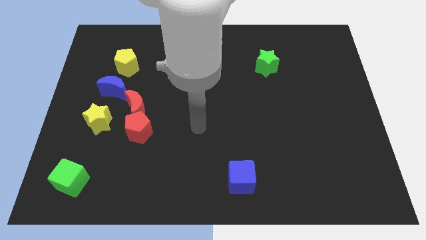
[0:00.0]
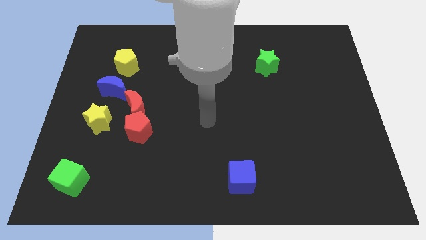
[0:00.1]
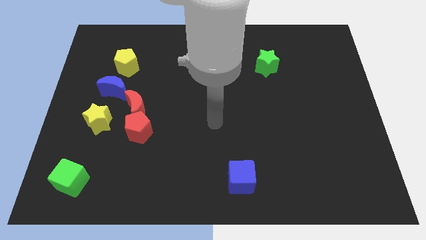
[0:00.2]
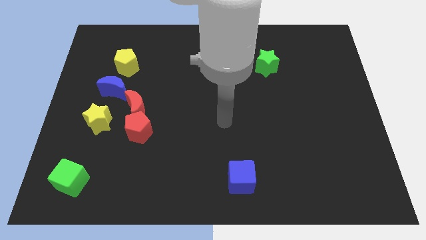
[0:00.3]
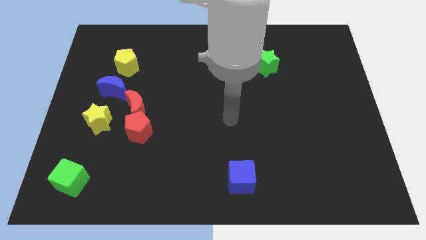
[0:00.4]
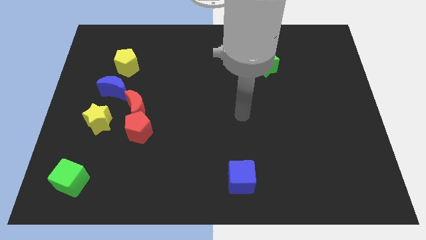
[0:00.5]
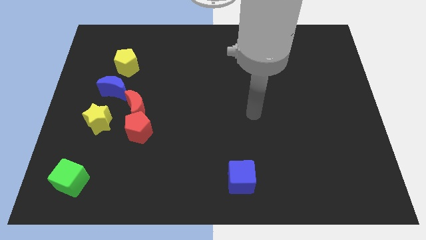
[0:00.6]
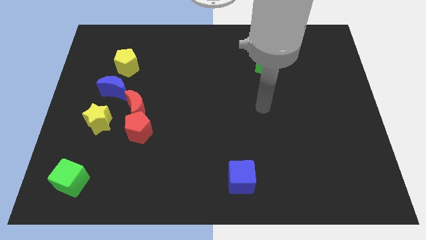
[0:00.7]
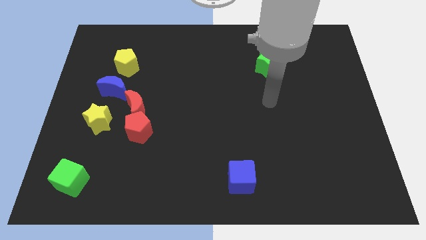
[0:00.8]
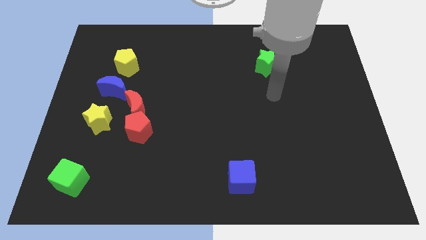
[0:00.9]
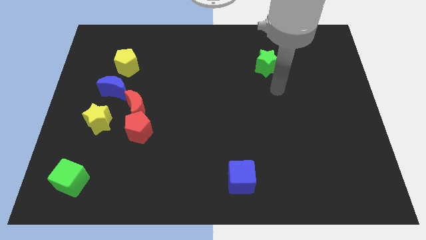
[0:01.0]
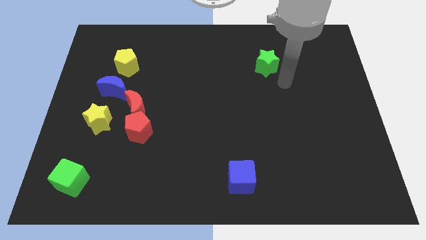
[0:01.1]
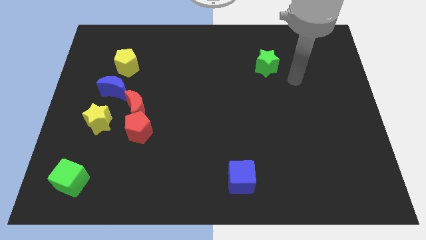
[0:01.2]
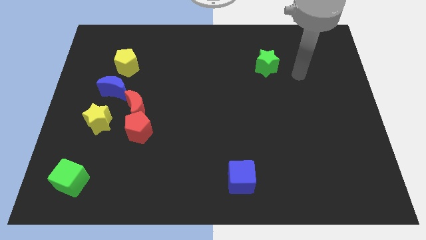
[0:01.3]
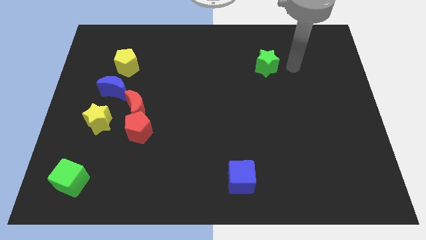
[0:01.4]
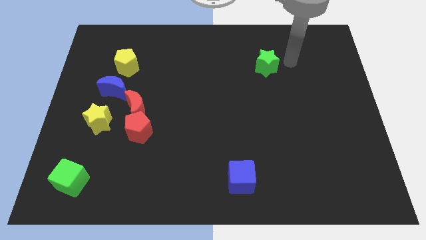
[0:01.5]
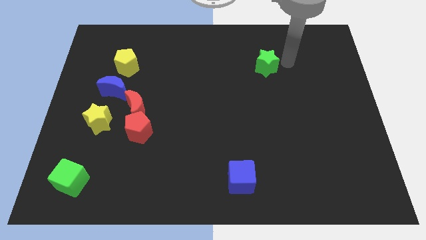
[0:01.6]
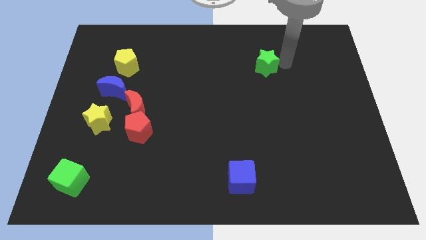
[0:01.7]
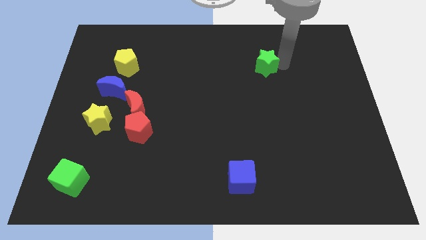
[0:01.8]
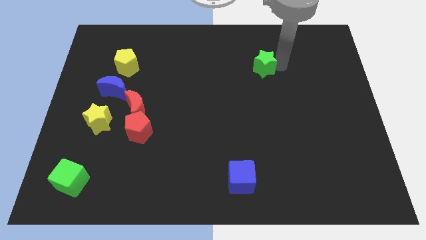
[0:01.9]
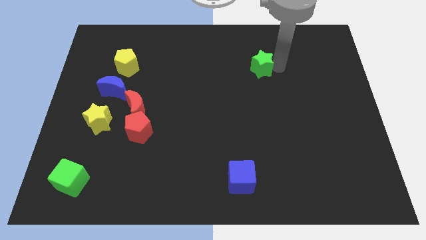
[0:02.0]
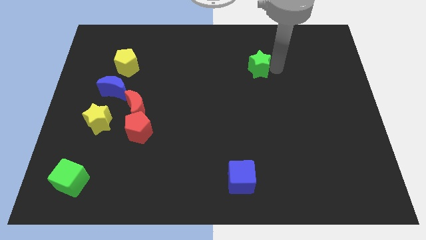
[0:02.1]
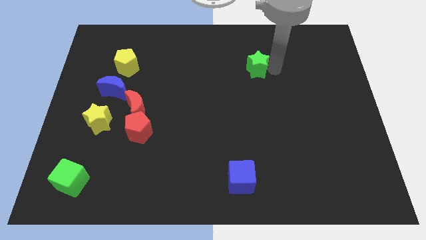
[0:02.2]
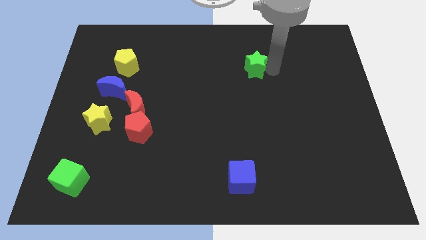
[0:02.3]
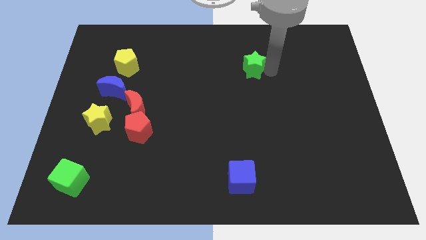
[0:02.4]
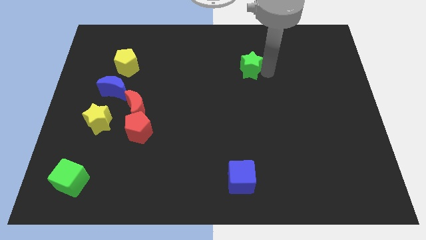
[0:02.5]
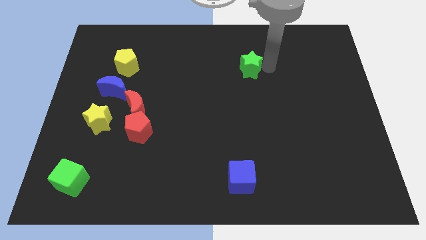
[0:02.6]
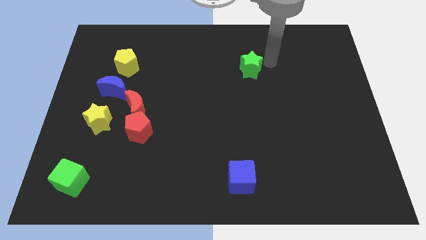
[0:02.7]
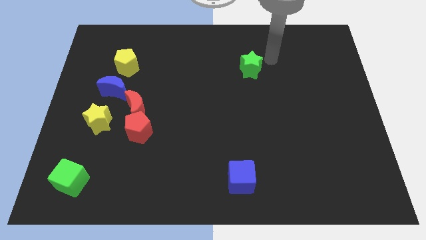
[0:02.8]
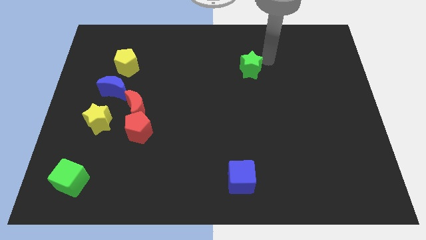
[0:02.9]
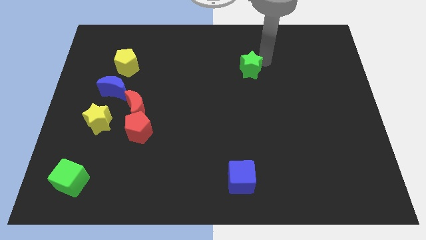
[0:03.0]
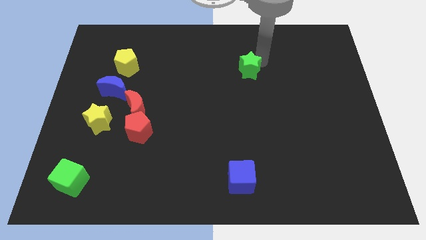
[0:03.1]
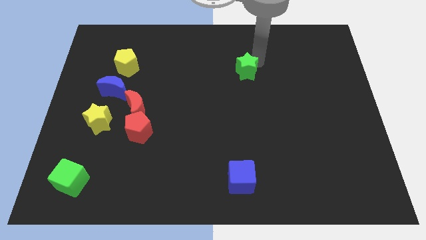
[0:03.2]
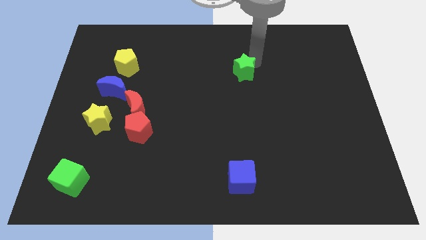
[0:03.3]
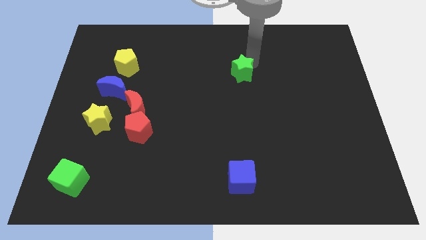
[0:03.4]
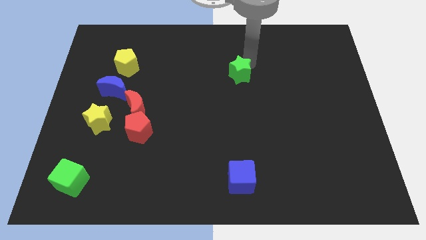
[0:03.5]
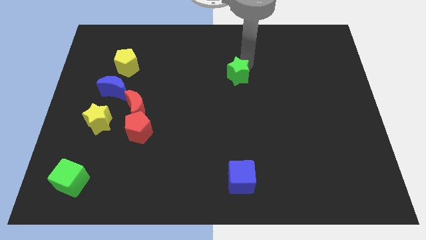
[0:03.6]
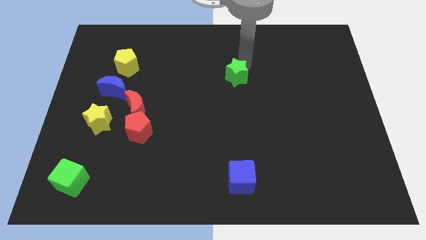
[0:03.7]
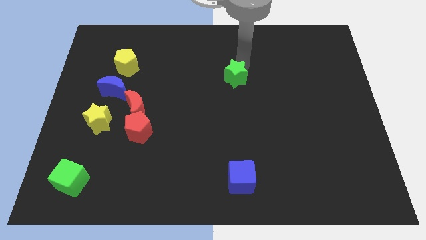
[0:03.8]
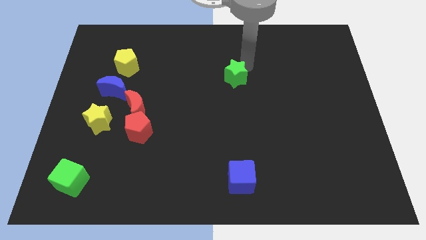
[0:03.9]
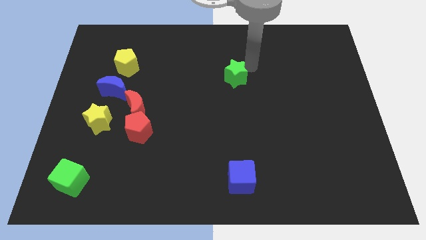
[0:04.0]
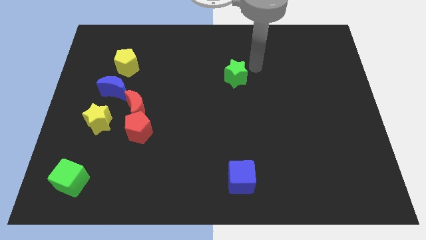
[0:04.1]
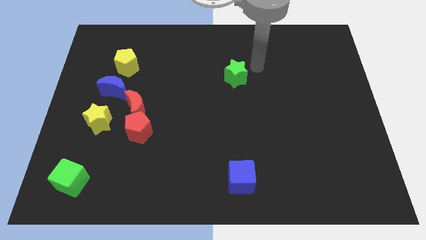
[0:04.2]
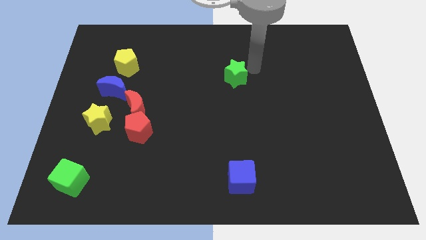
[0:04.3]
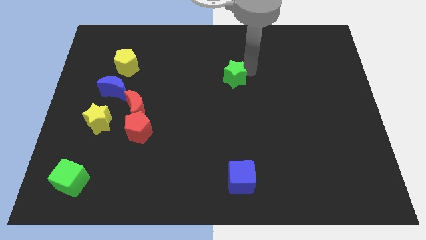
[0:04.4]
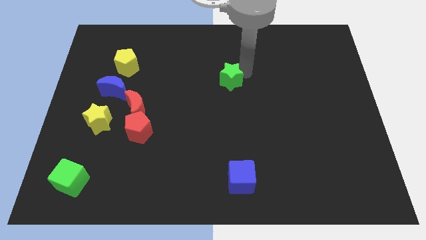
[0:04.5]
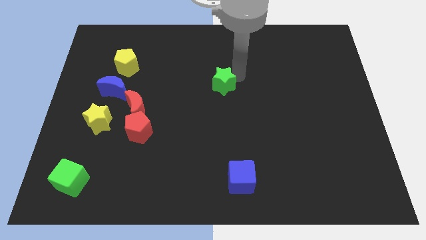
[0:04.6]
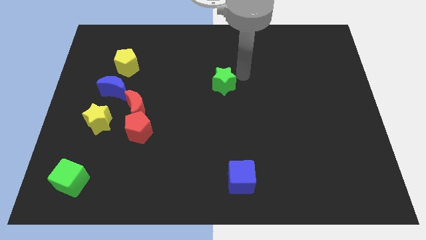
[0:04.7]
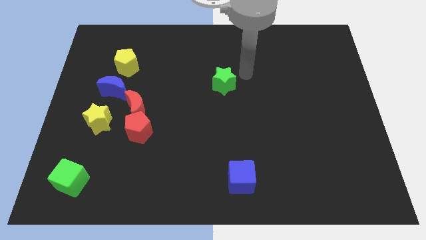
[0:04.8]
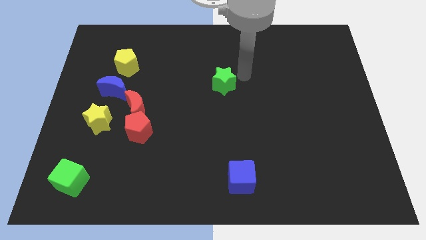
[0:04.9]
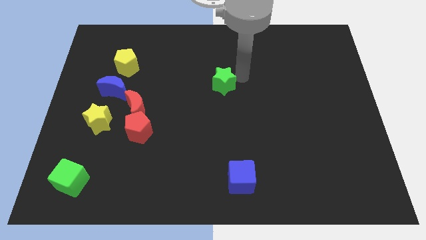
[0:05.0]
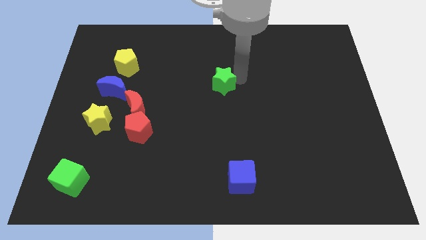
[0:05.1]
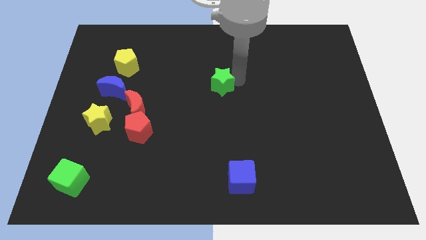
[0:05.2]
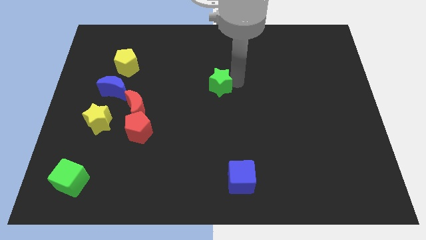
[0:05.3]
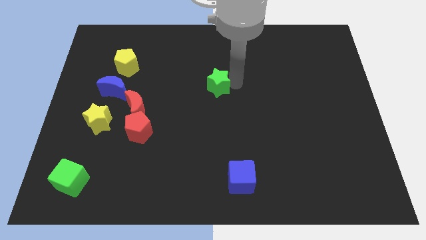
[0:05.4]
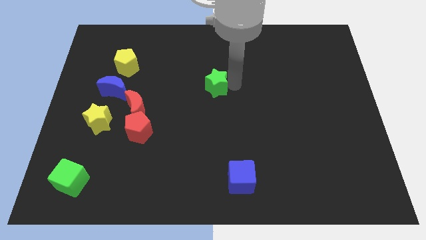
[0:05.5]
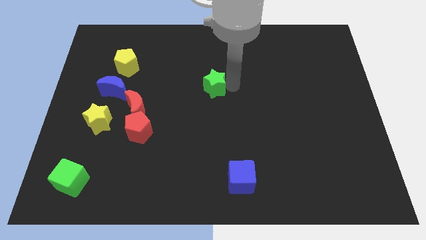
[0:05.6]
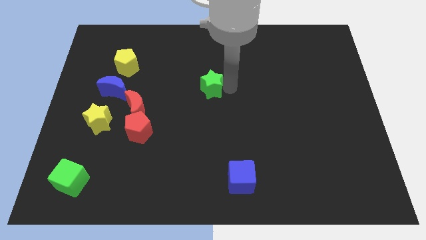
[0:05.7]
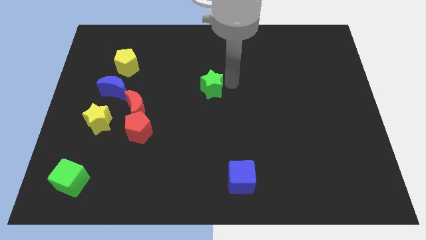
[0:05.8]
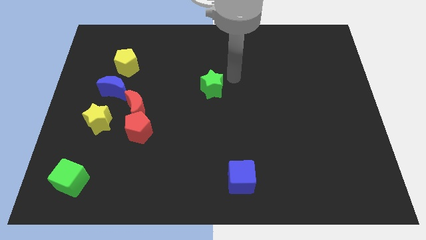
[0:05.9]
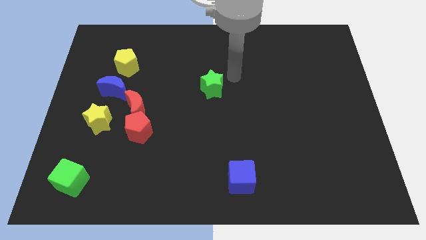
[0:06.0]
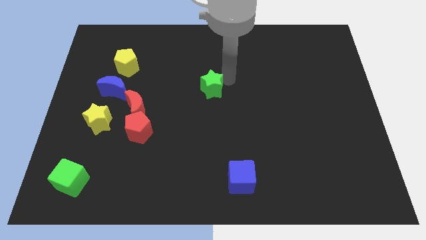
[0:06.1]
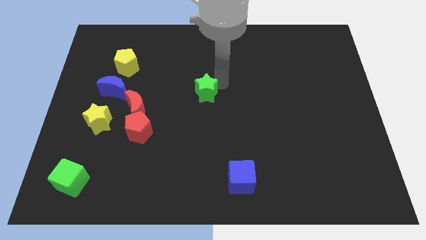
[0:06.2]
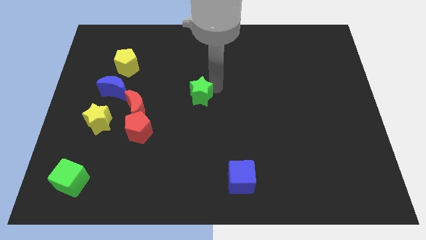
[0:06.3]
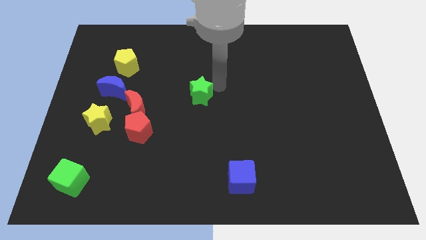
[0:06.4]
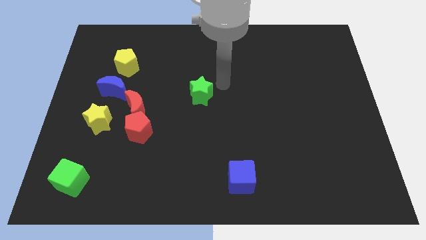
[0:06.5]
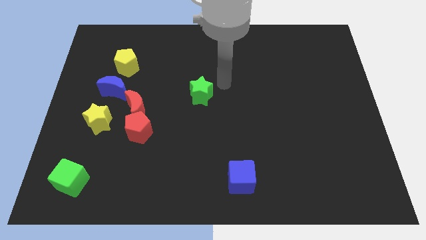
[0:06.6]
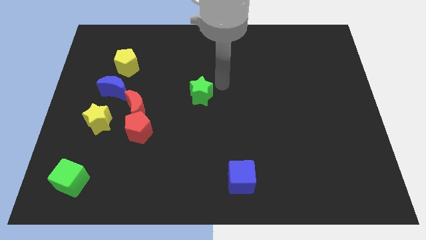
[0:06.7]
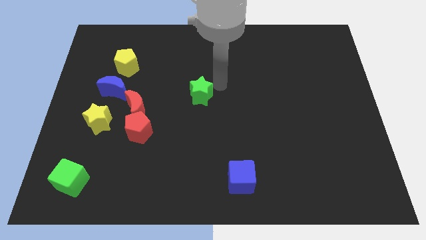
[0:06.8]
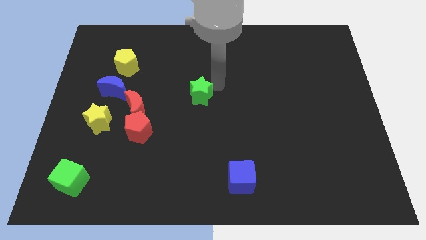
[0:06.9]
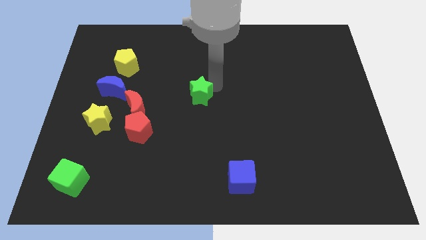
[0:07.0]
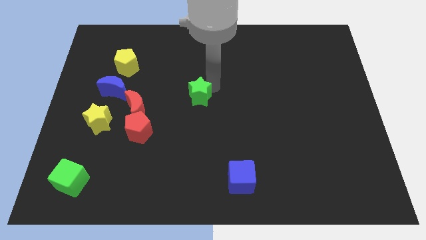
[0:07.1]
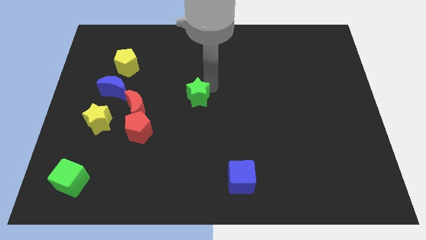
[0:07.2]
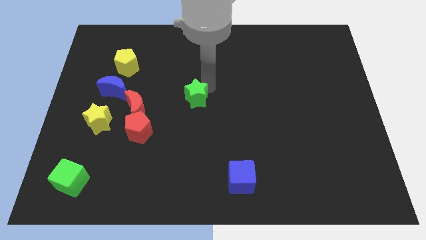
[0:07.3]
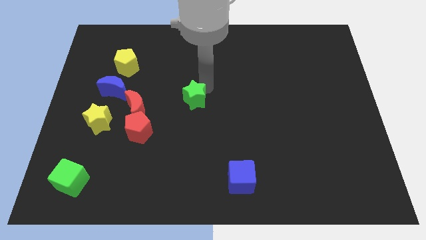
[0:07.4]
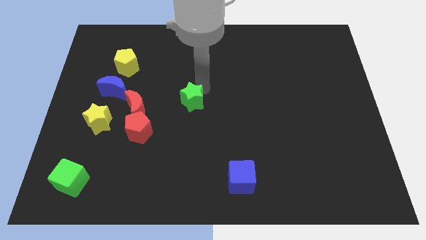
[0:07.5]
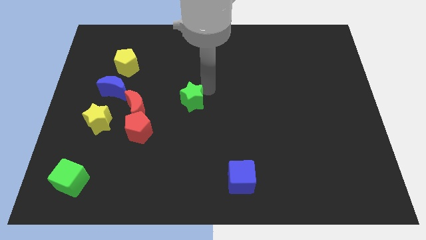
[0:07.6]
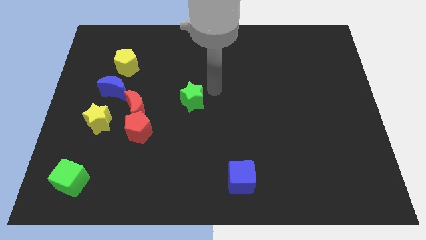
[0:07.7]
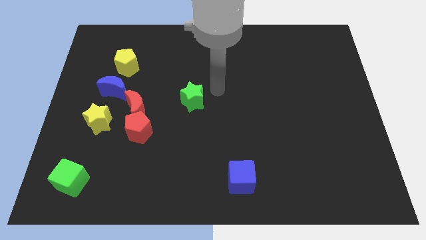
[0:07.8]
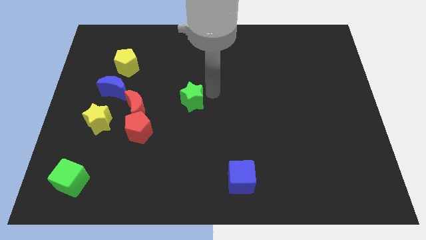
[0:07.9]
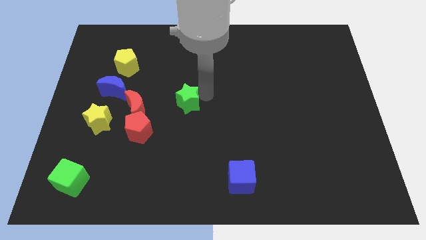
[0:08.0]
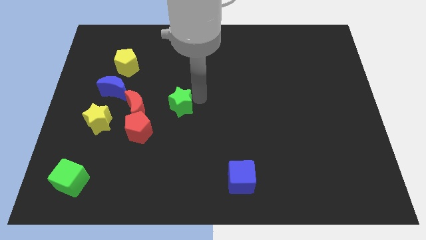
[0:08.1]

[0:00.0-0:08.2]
slide the green star to the top right of the red pentagon
